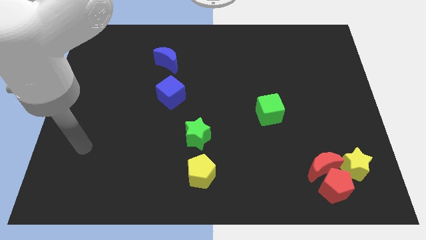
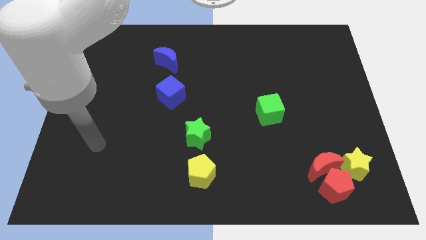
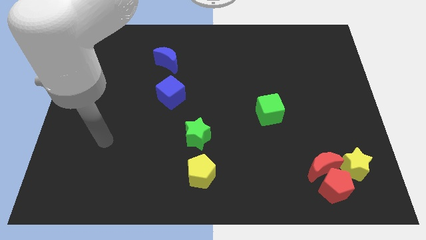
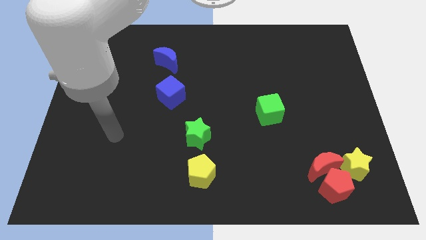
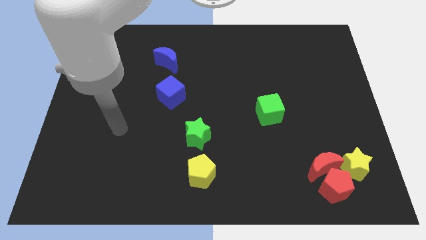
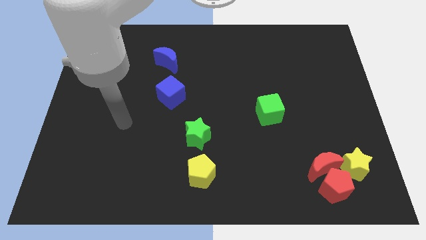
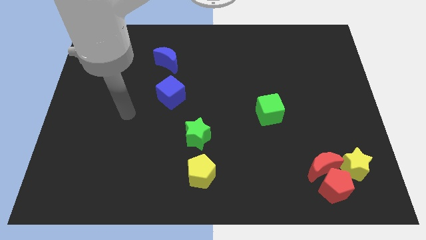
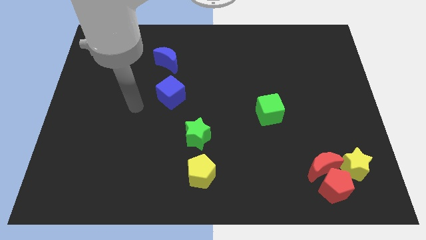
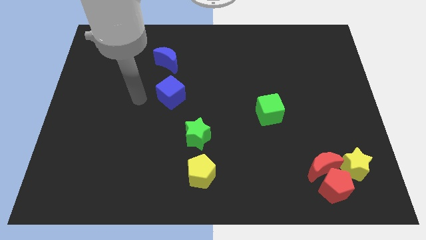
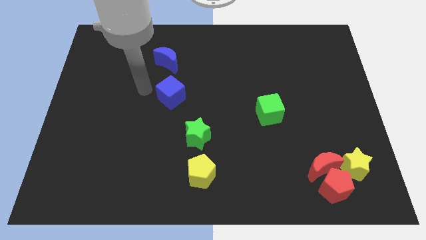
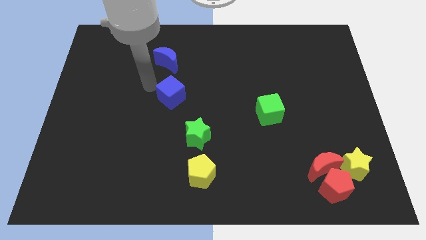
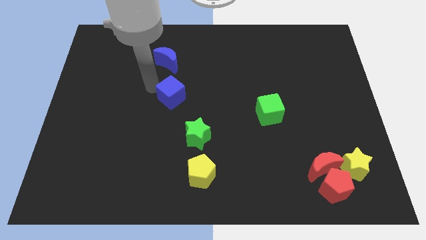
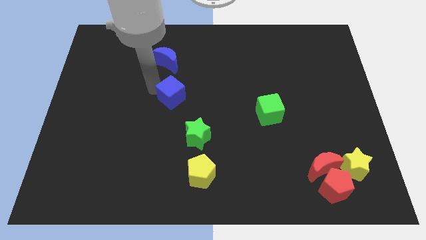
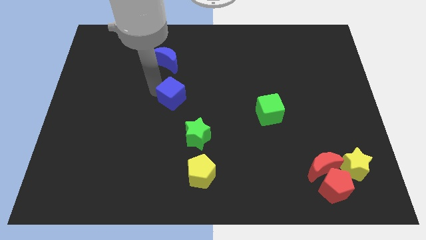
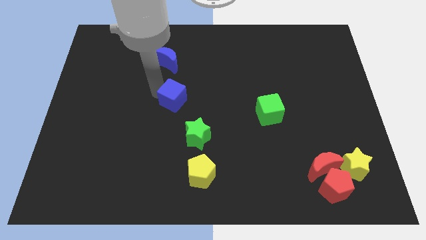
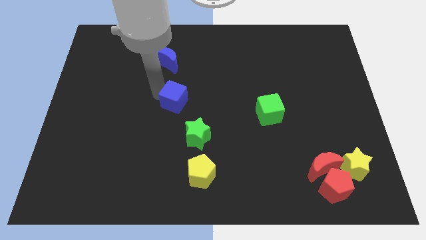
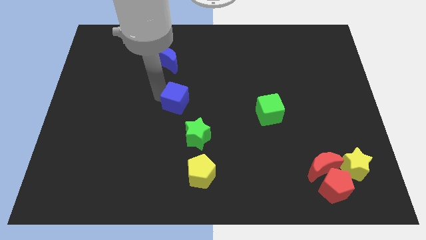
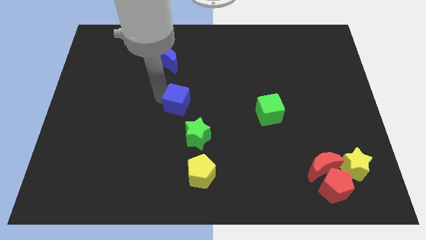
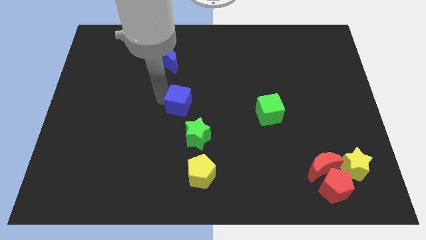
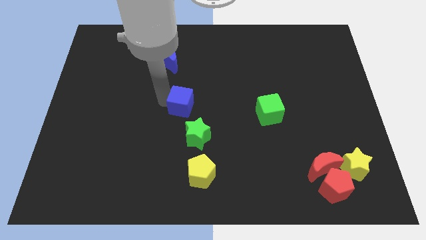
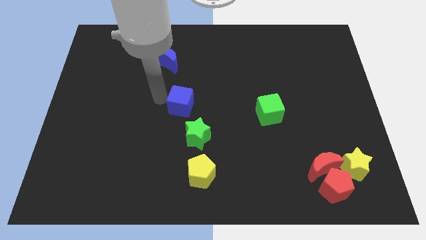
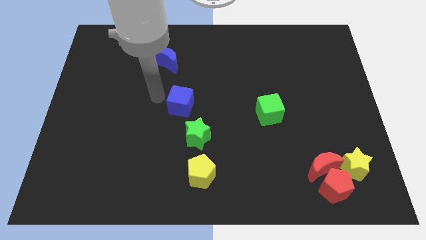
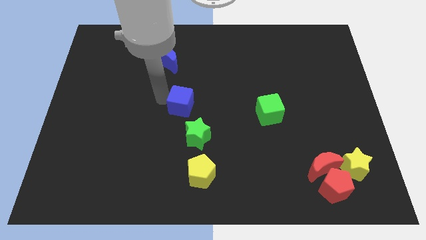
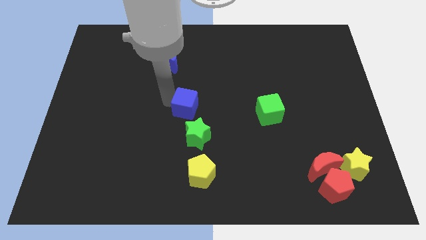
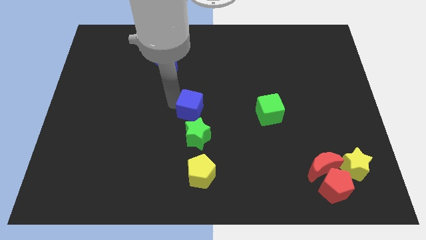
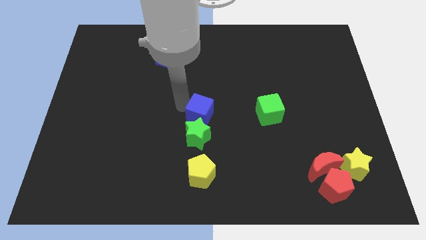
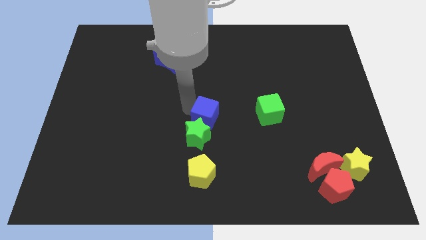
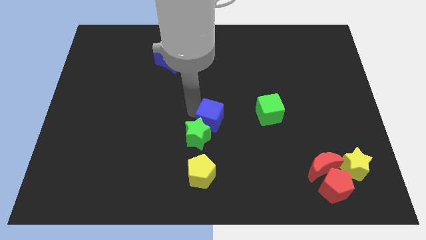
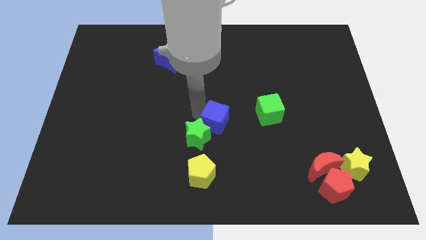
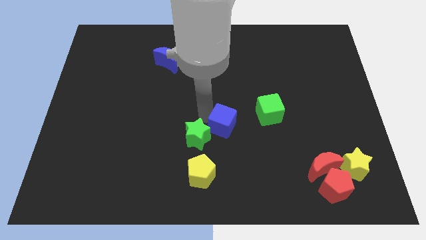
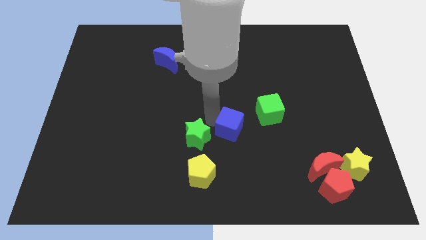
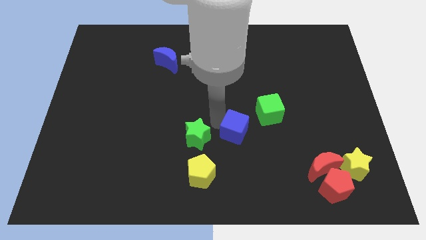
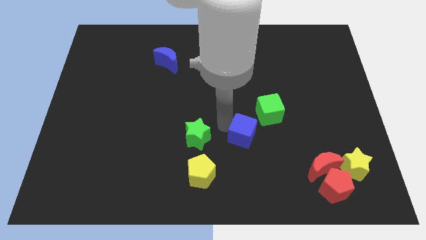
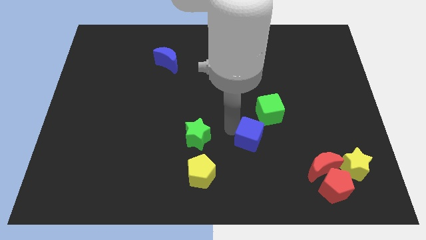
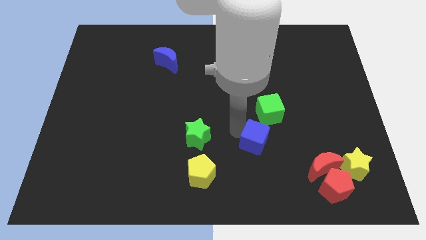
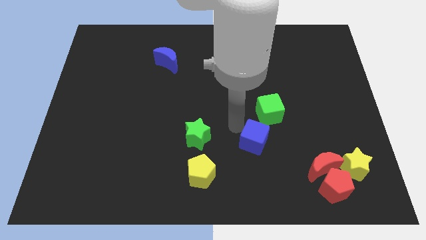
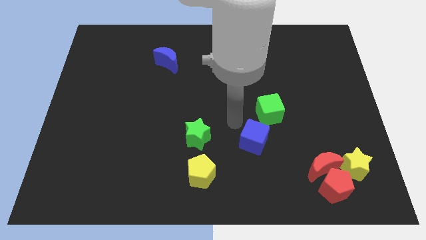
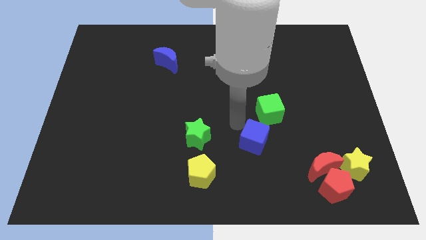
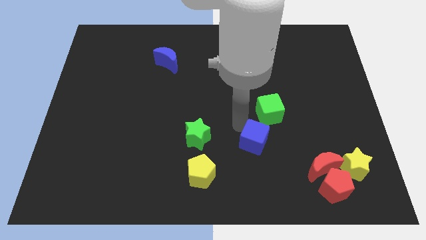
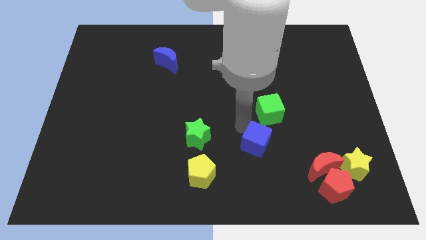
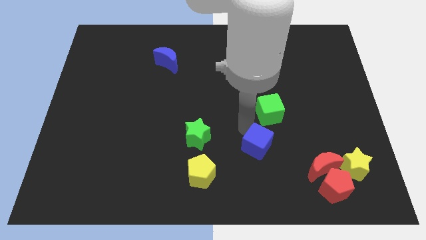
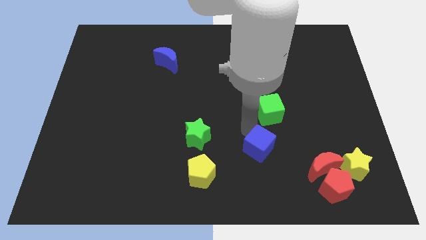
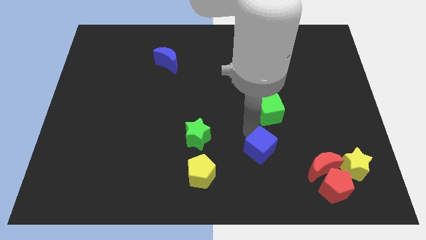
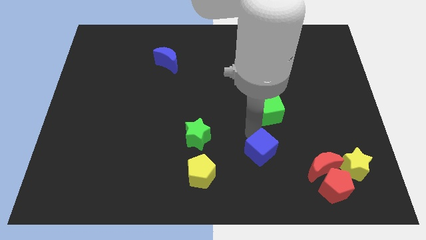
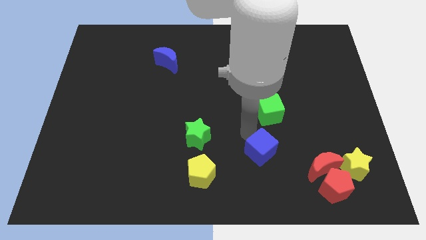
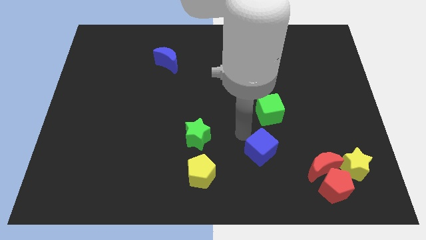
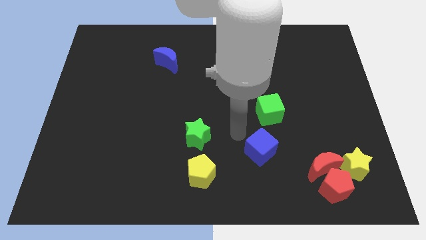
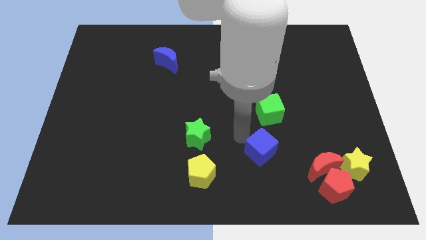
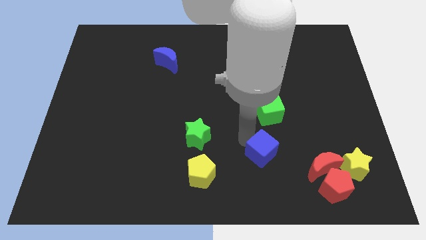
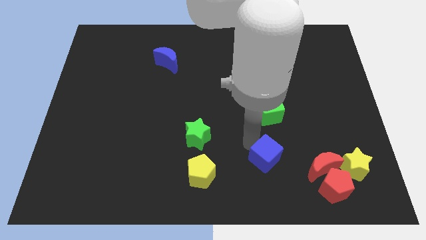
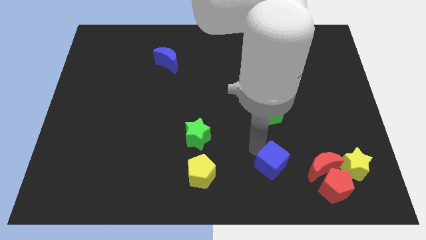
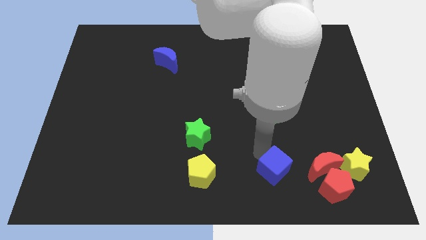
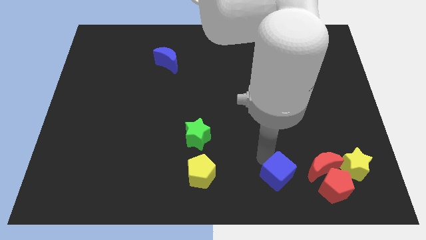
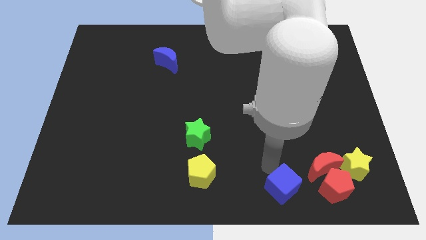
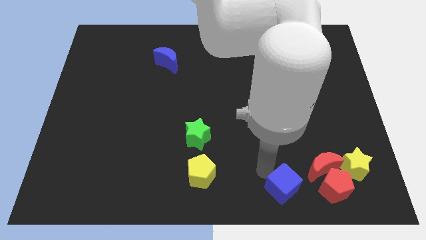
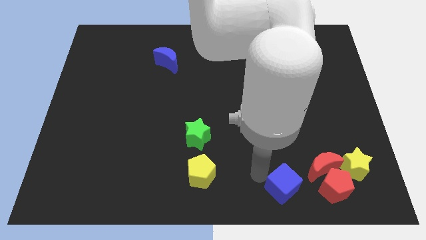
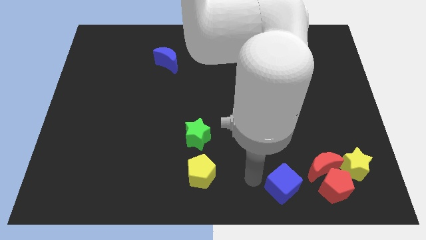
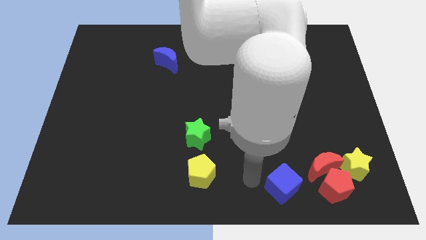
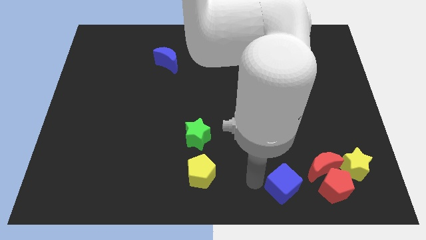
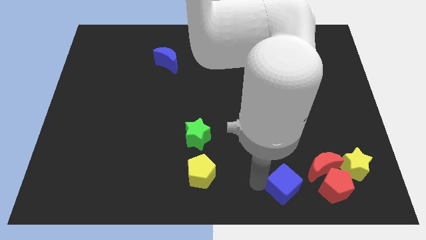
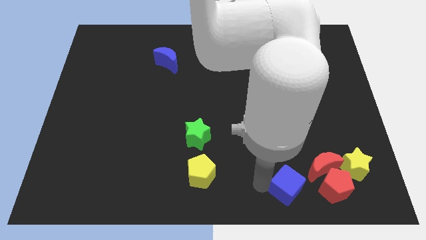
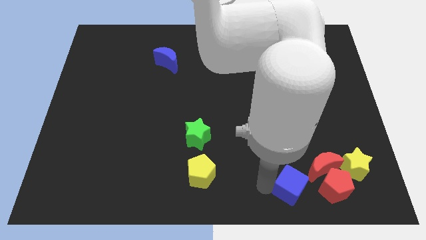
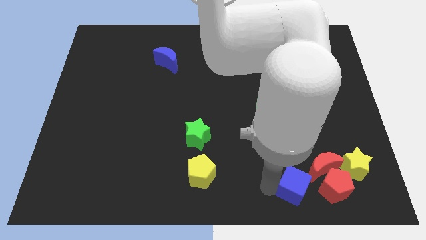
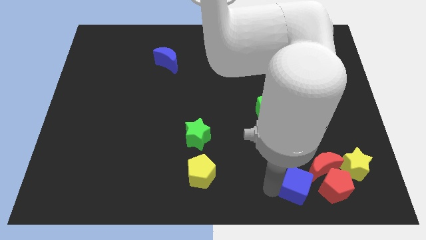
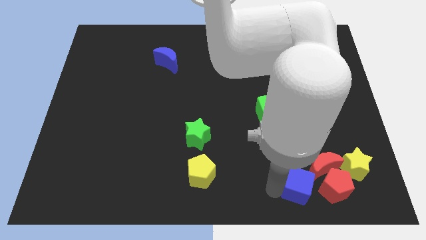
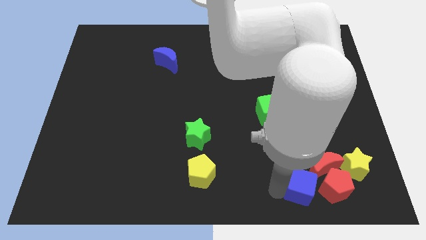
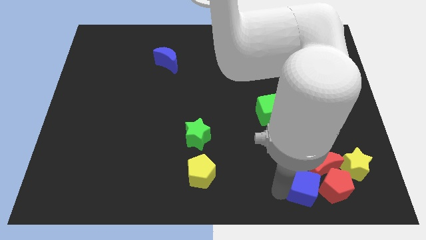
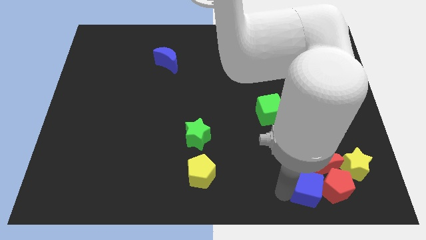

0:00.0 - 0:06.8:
push the blue cube close to the red pentagon
